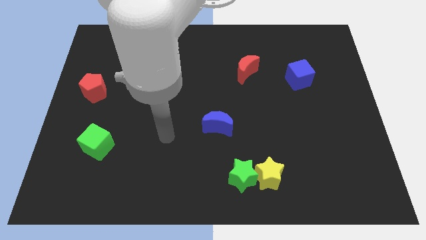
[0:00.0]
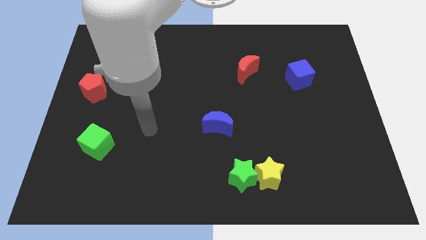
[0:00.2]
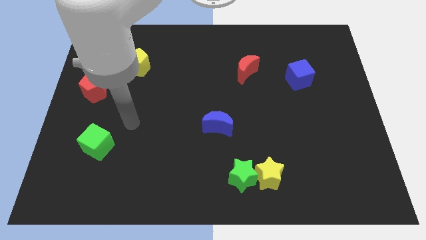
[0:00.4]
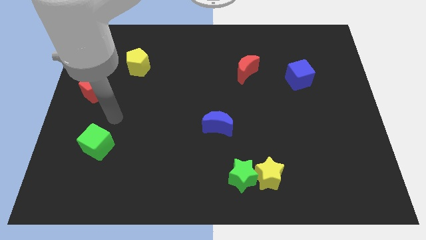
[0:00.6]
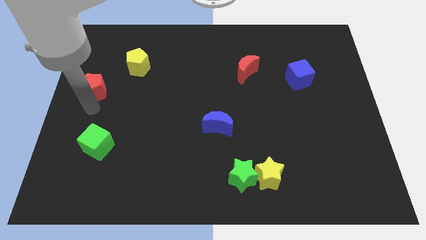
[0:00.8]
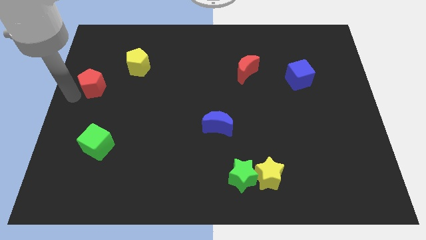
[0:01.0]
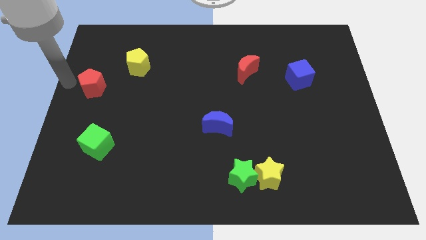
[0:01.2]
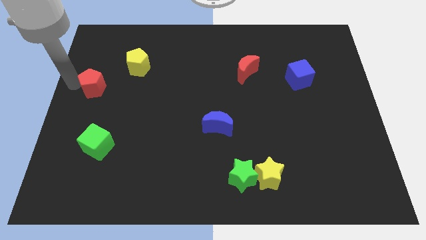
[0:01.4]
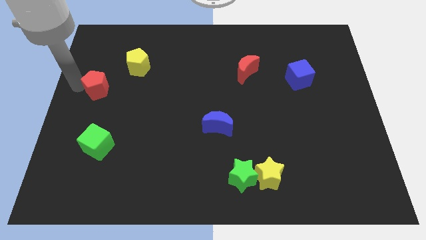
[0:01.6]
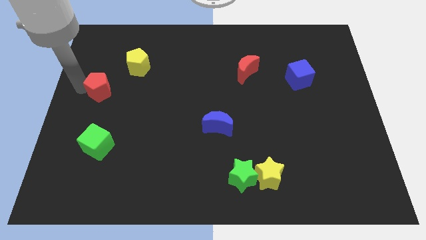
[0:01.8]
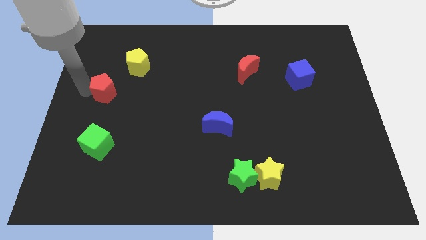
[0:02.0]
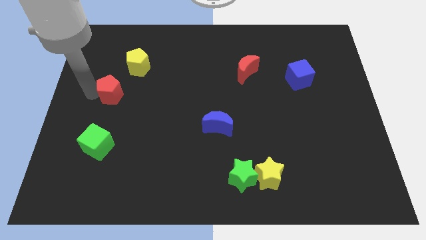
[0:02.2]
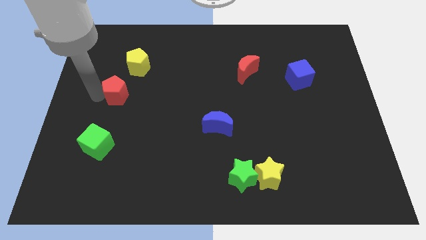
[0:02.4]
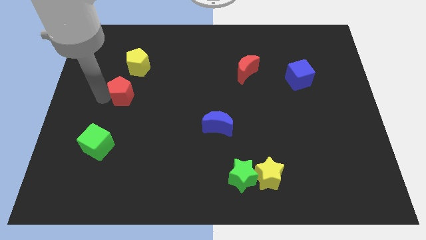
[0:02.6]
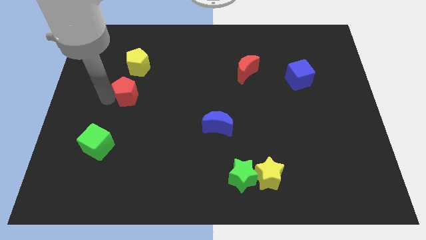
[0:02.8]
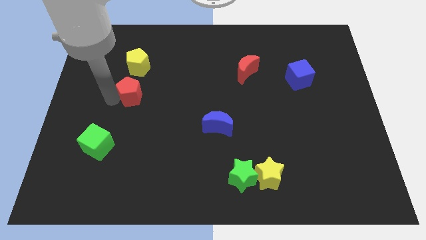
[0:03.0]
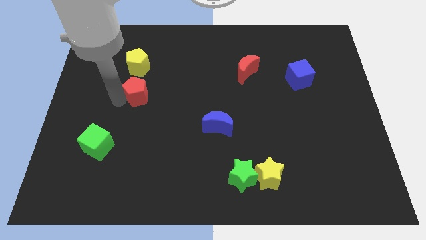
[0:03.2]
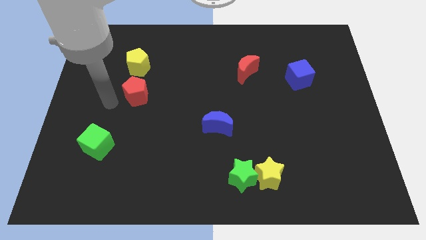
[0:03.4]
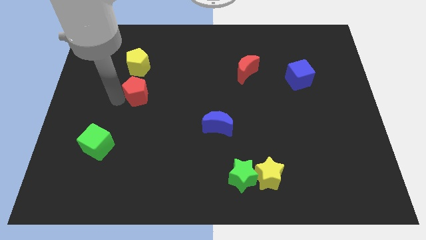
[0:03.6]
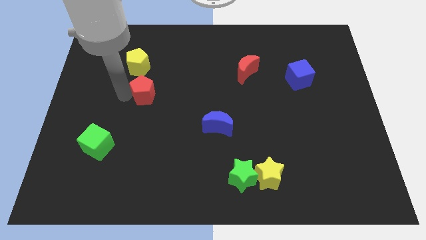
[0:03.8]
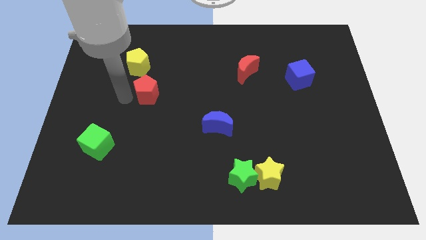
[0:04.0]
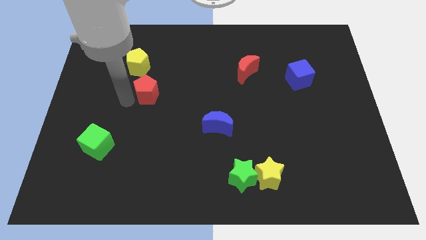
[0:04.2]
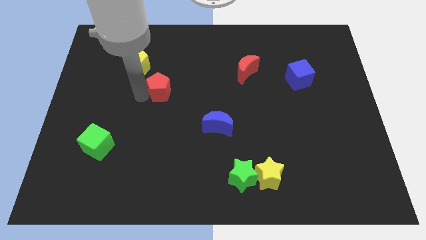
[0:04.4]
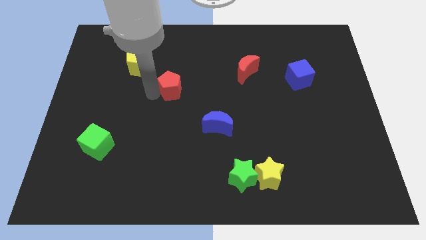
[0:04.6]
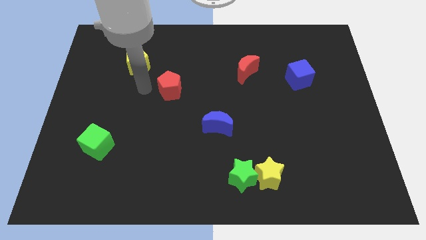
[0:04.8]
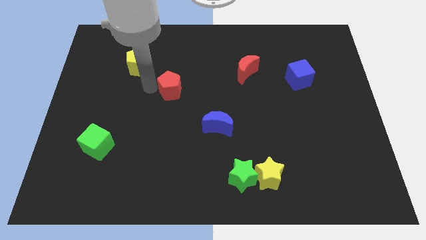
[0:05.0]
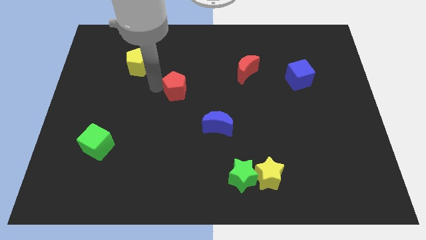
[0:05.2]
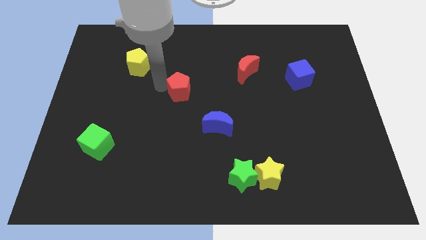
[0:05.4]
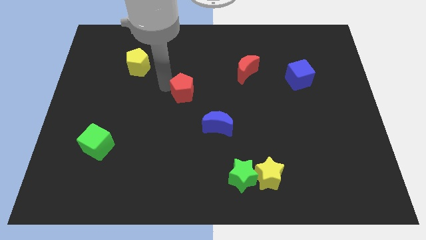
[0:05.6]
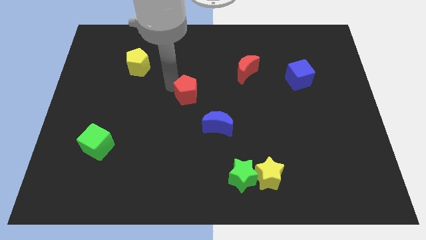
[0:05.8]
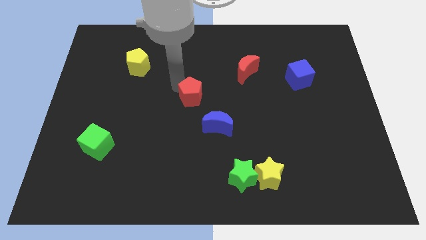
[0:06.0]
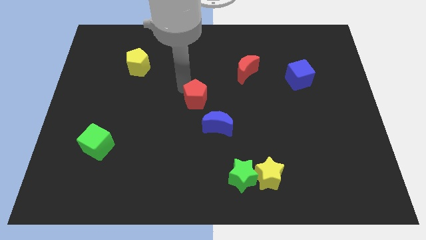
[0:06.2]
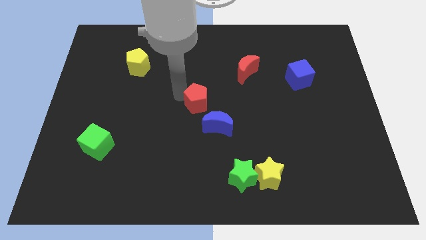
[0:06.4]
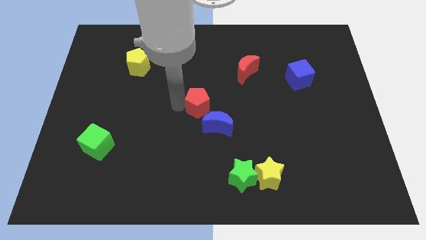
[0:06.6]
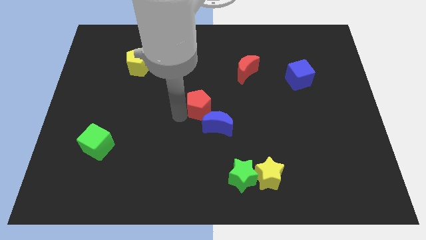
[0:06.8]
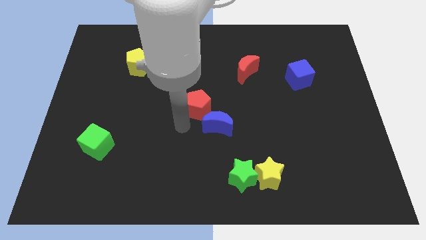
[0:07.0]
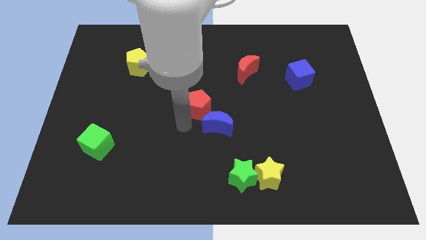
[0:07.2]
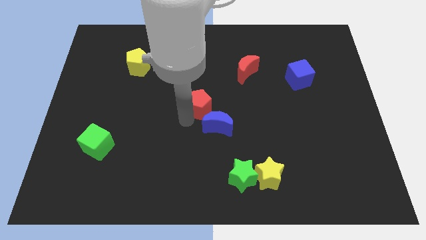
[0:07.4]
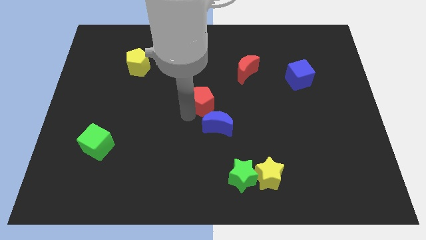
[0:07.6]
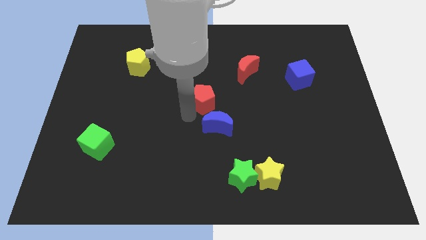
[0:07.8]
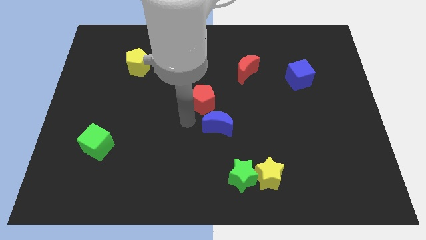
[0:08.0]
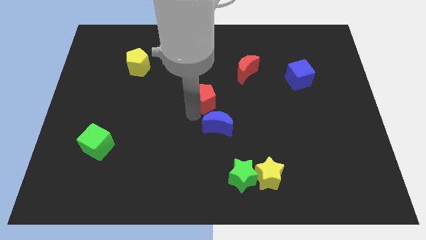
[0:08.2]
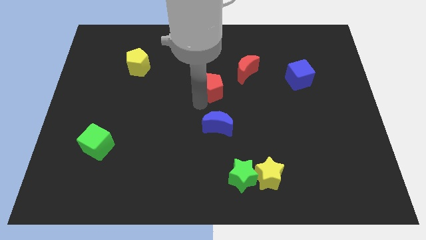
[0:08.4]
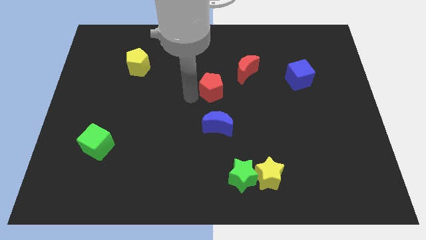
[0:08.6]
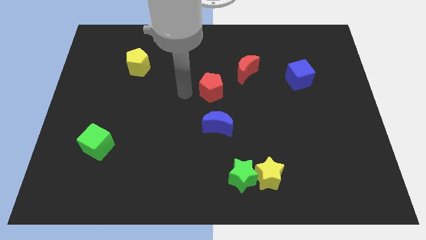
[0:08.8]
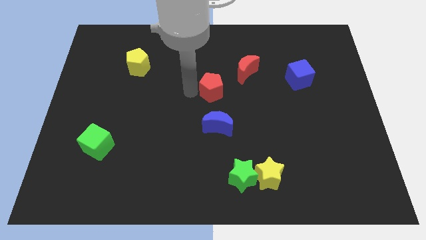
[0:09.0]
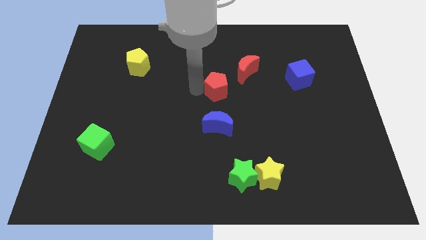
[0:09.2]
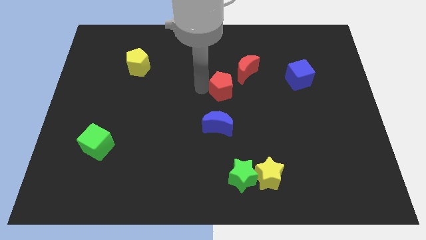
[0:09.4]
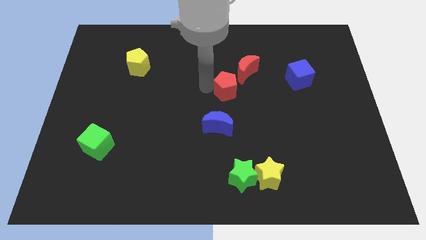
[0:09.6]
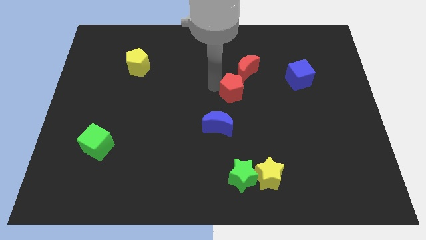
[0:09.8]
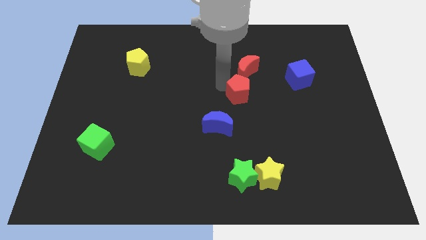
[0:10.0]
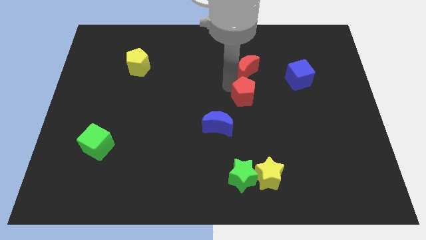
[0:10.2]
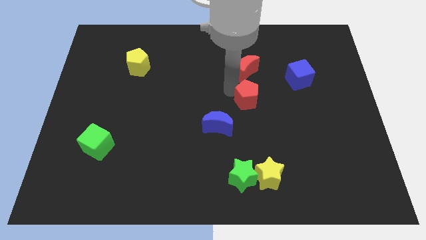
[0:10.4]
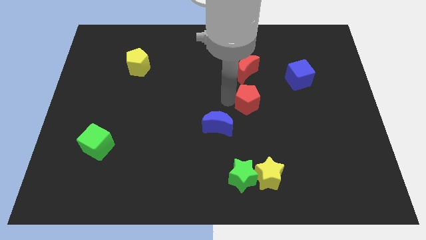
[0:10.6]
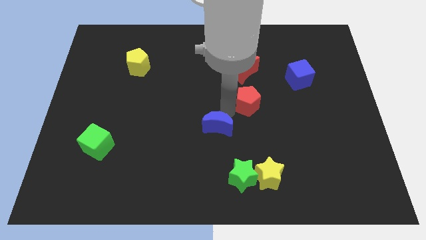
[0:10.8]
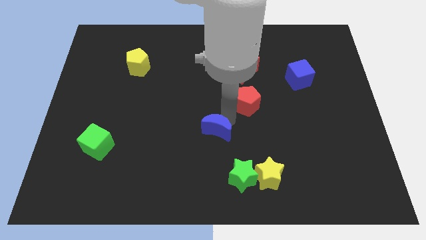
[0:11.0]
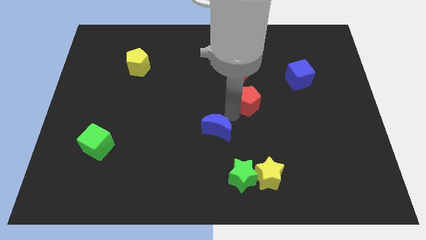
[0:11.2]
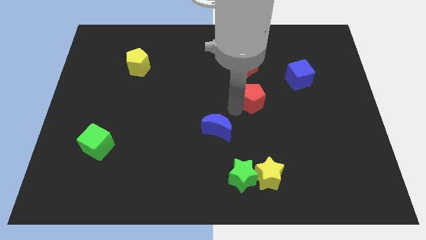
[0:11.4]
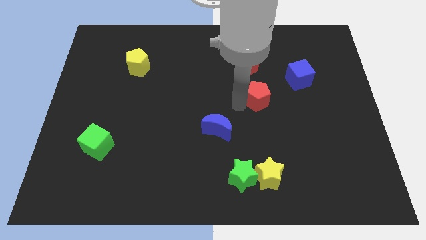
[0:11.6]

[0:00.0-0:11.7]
move the red pentagon to the bottom right of the red moon

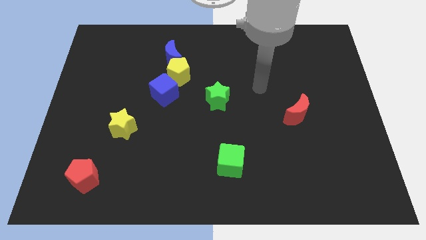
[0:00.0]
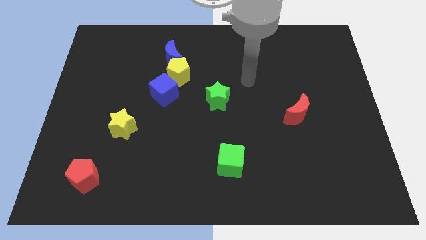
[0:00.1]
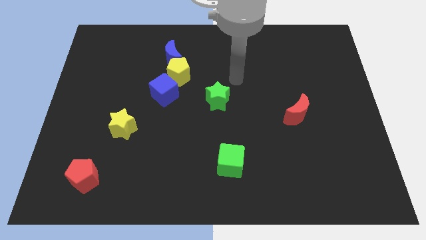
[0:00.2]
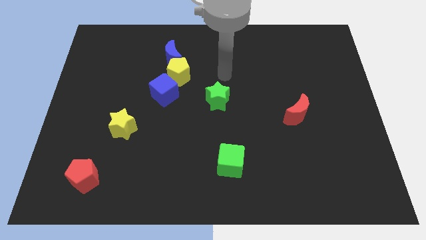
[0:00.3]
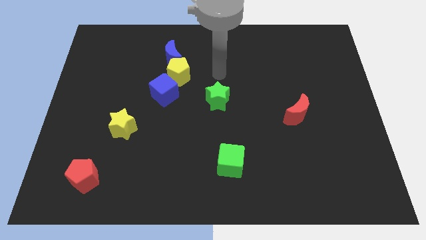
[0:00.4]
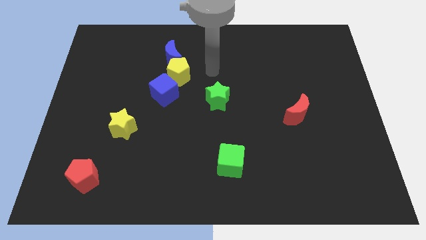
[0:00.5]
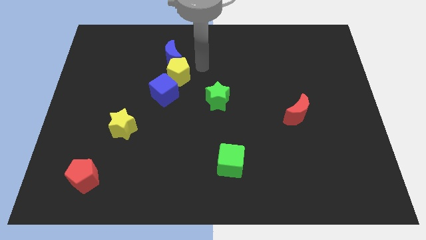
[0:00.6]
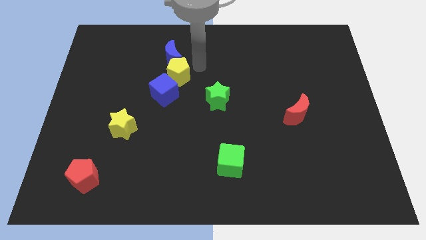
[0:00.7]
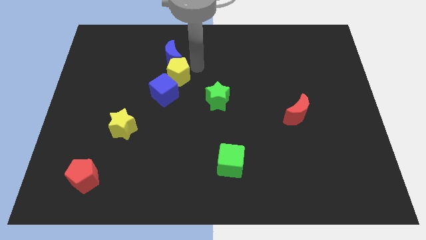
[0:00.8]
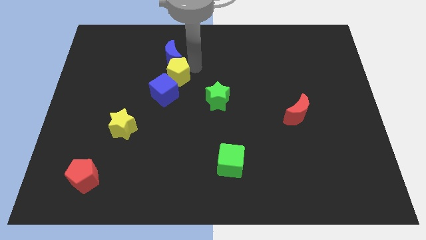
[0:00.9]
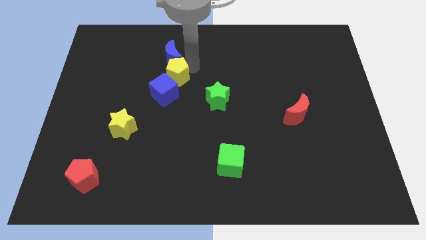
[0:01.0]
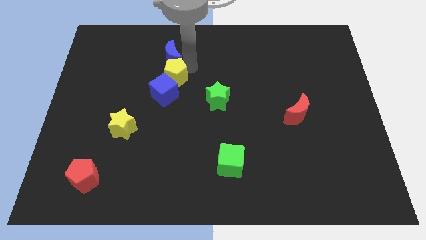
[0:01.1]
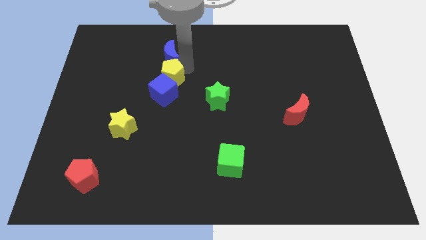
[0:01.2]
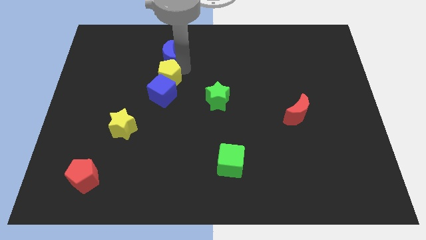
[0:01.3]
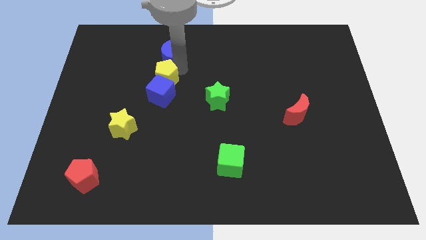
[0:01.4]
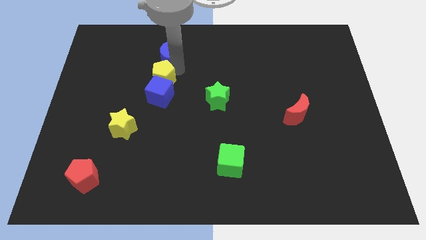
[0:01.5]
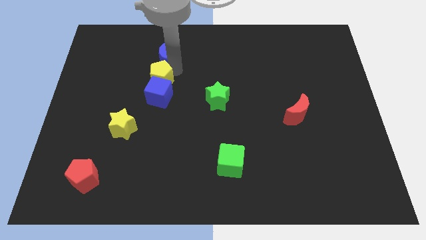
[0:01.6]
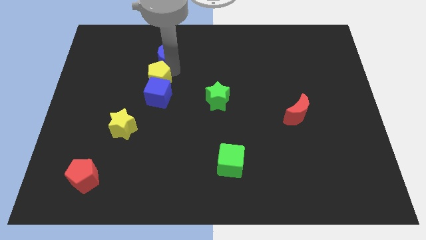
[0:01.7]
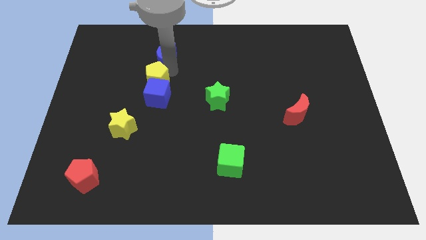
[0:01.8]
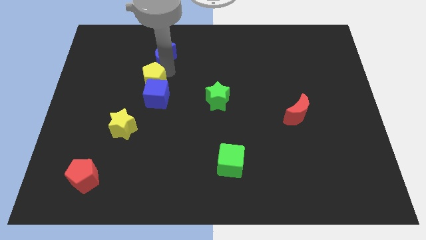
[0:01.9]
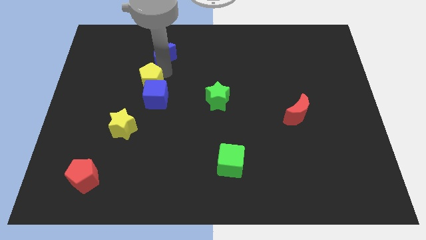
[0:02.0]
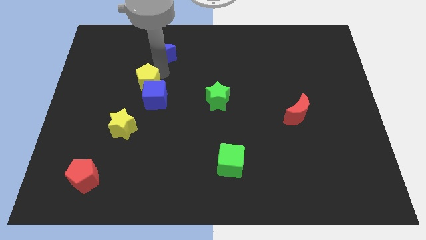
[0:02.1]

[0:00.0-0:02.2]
push the yellow pentagon to the top side of the yellow star
